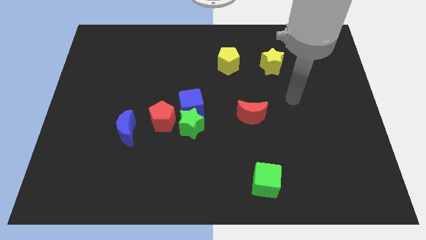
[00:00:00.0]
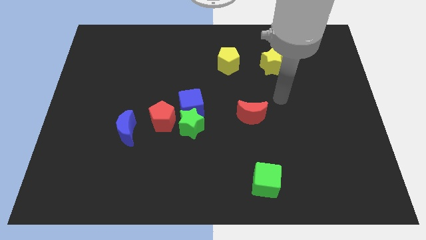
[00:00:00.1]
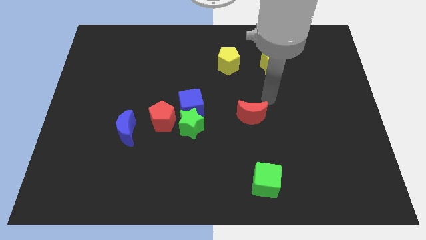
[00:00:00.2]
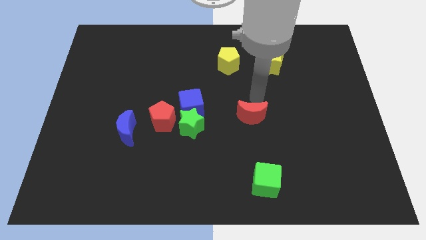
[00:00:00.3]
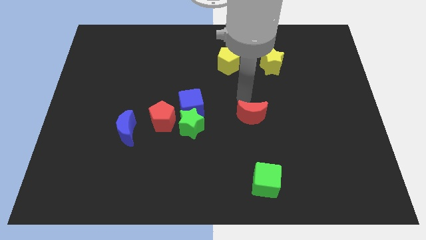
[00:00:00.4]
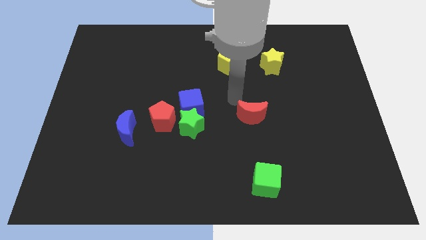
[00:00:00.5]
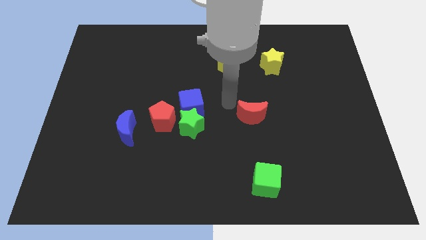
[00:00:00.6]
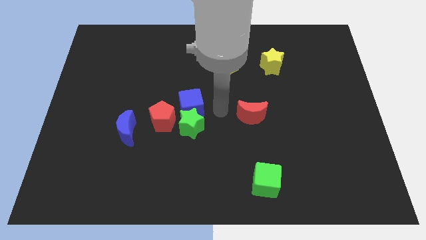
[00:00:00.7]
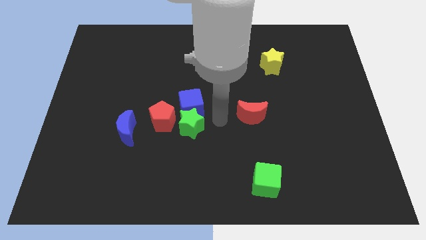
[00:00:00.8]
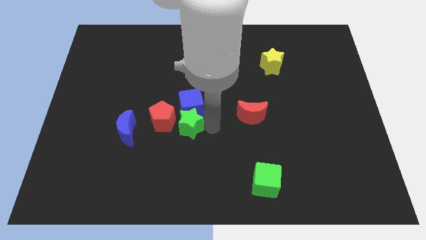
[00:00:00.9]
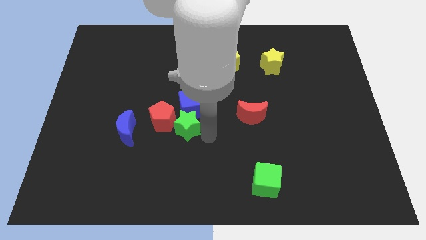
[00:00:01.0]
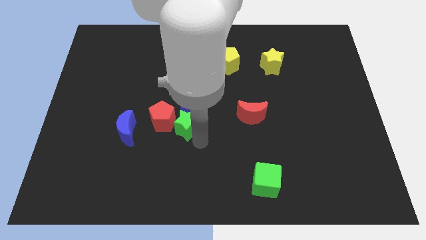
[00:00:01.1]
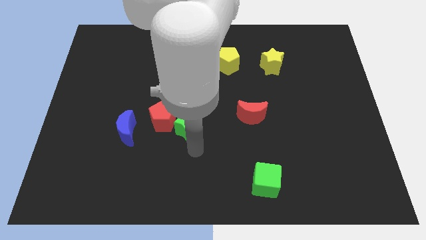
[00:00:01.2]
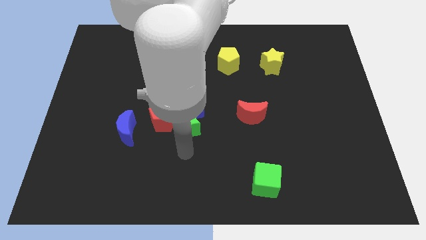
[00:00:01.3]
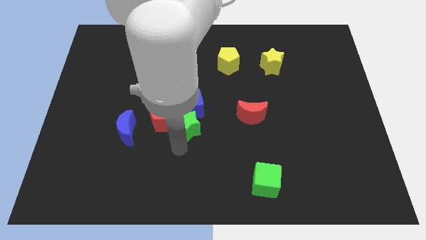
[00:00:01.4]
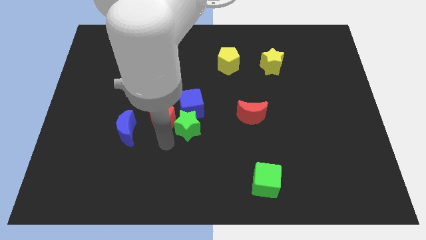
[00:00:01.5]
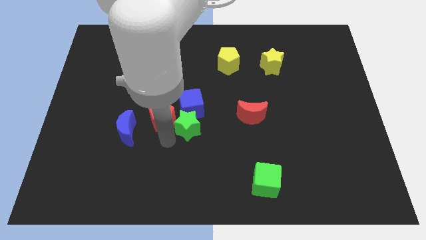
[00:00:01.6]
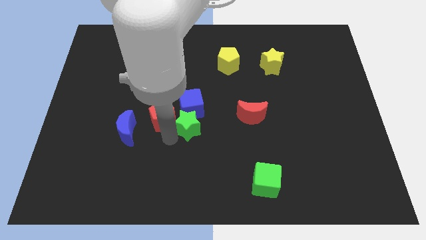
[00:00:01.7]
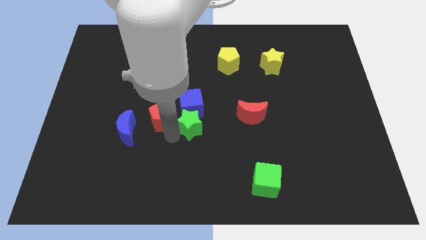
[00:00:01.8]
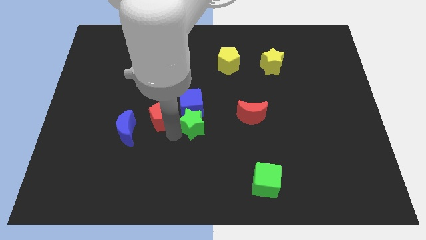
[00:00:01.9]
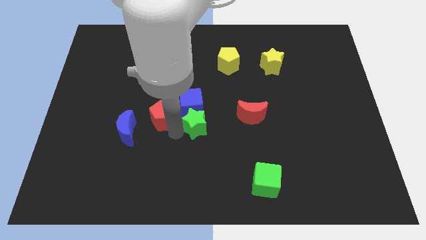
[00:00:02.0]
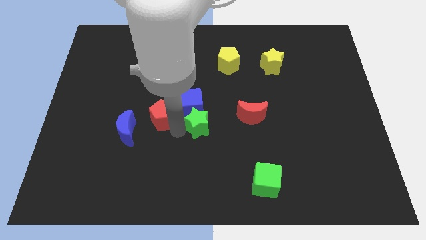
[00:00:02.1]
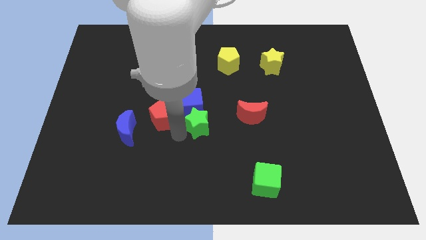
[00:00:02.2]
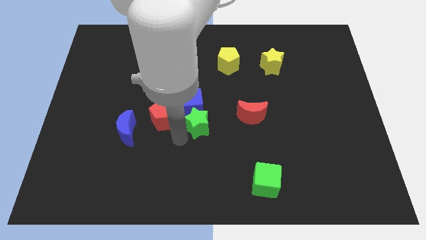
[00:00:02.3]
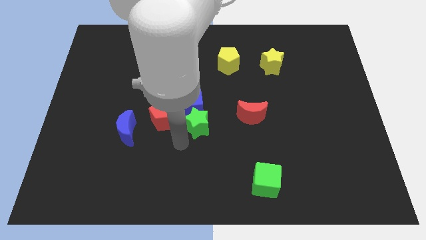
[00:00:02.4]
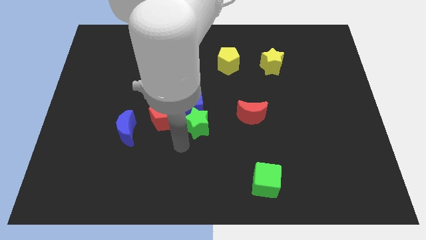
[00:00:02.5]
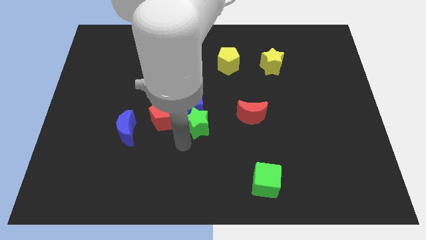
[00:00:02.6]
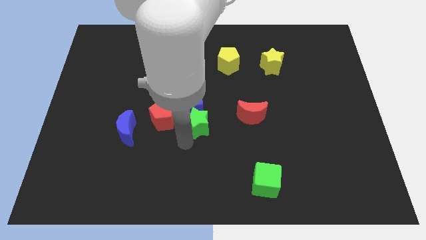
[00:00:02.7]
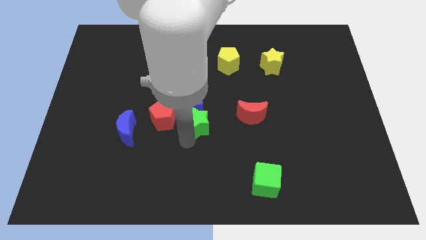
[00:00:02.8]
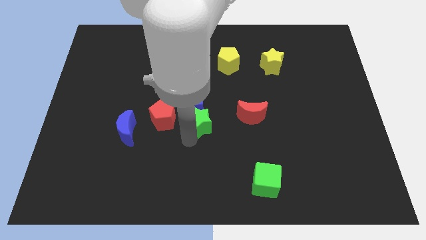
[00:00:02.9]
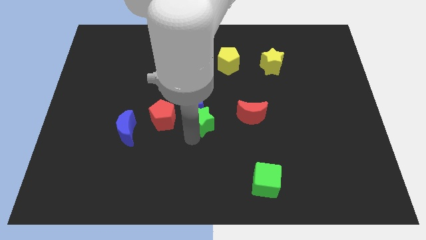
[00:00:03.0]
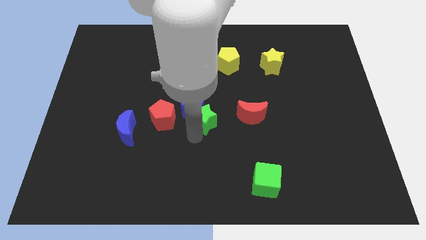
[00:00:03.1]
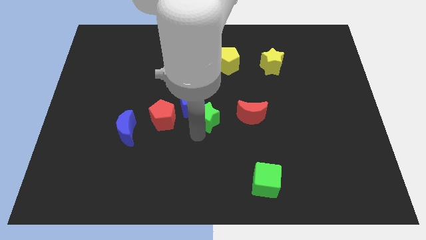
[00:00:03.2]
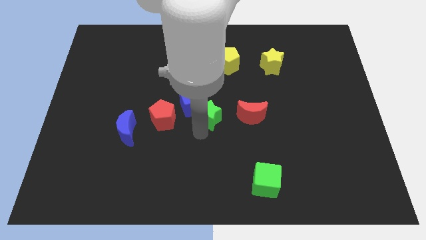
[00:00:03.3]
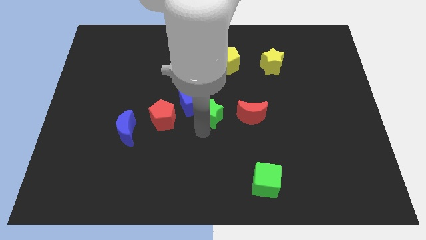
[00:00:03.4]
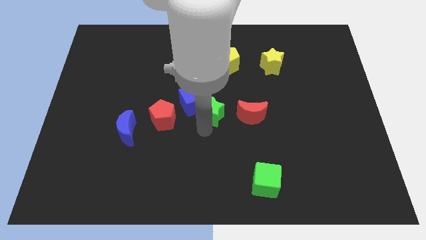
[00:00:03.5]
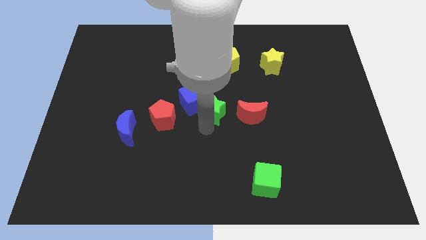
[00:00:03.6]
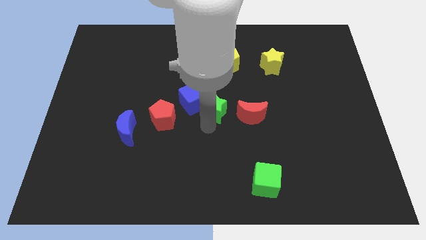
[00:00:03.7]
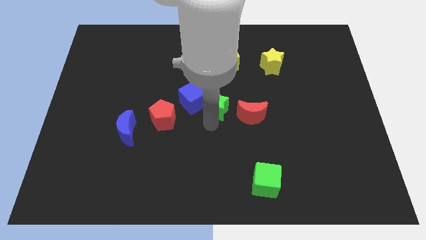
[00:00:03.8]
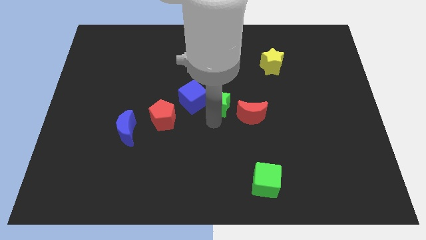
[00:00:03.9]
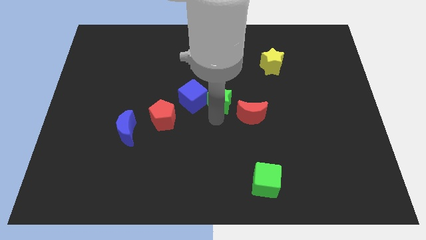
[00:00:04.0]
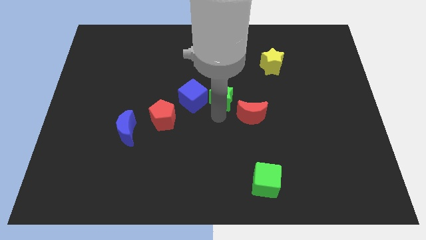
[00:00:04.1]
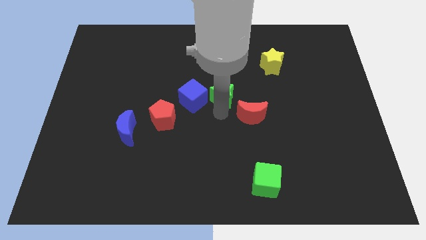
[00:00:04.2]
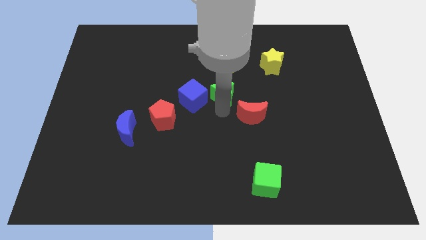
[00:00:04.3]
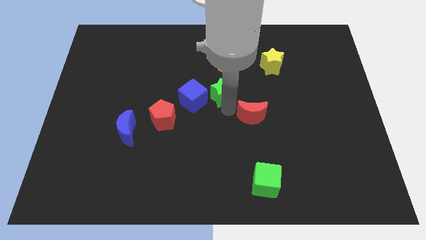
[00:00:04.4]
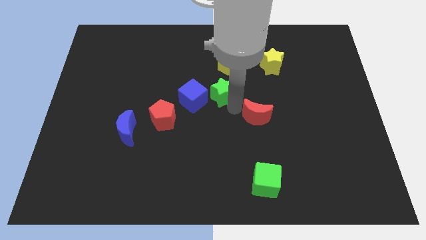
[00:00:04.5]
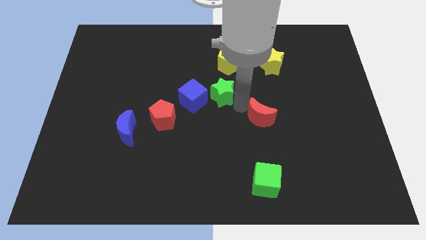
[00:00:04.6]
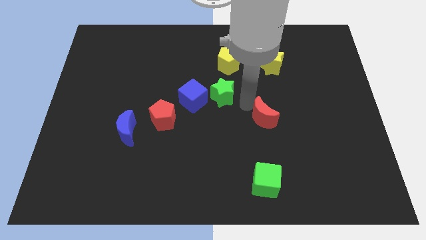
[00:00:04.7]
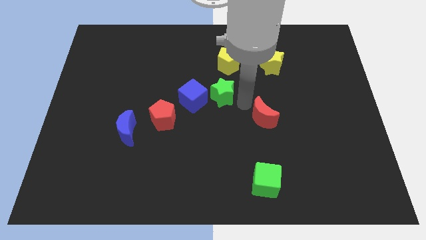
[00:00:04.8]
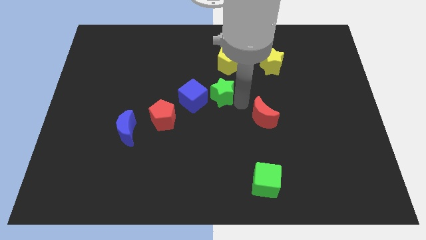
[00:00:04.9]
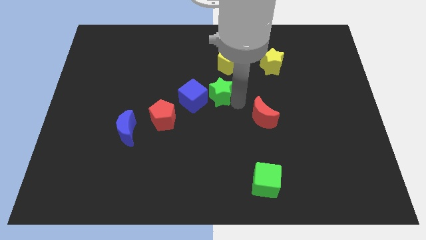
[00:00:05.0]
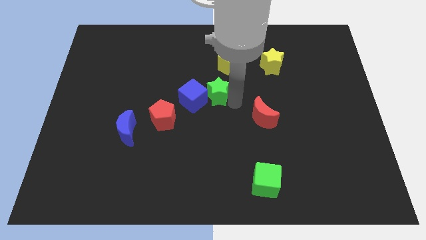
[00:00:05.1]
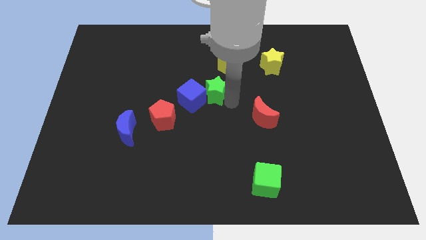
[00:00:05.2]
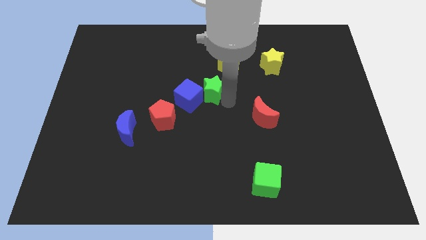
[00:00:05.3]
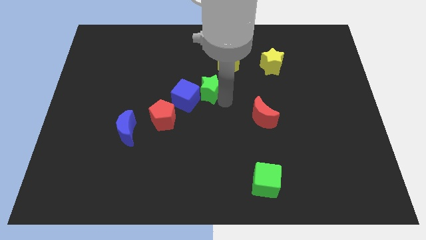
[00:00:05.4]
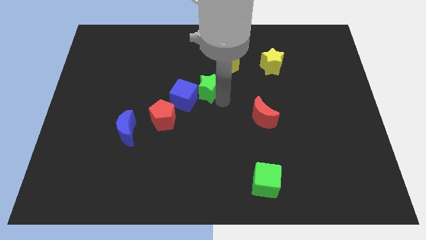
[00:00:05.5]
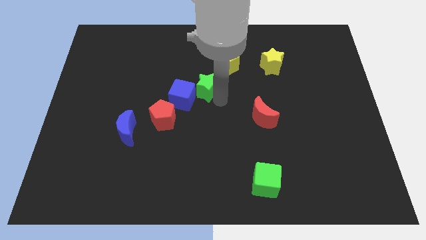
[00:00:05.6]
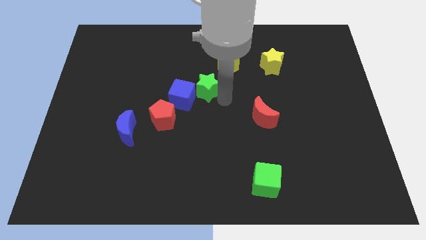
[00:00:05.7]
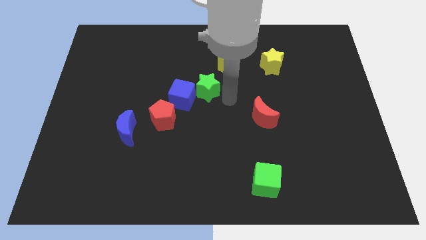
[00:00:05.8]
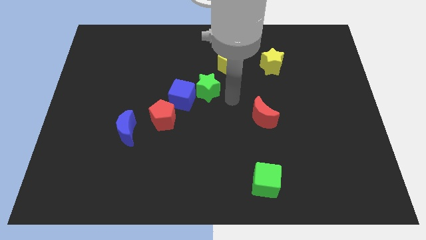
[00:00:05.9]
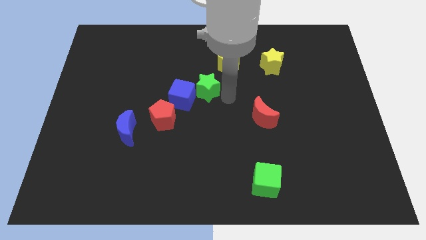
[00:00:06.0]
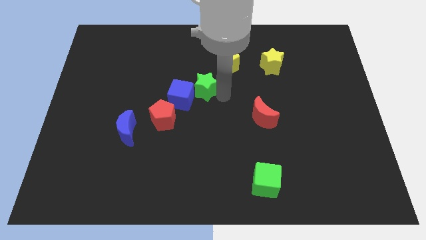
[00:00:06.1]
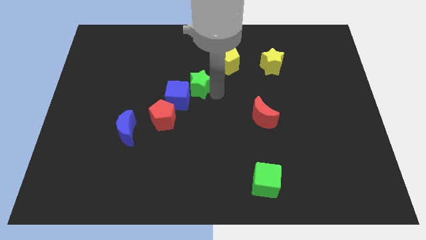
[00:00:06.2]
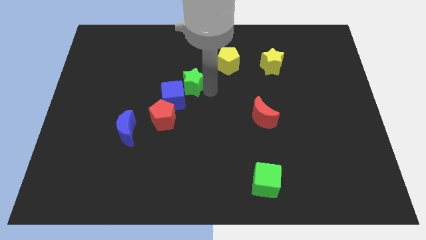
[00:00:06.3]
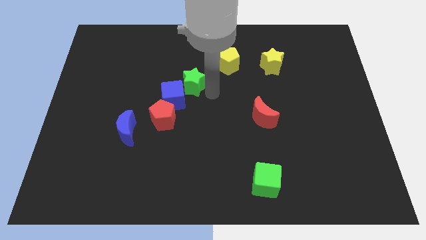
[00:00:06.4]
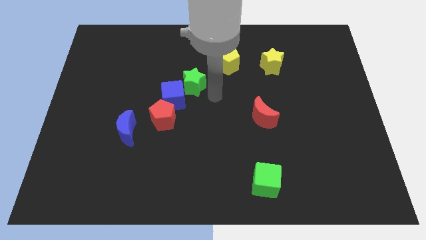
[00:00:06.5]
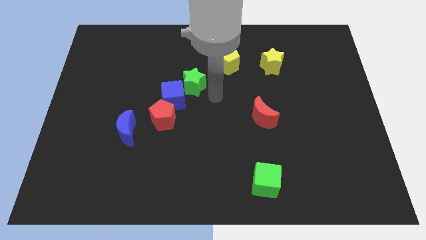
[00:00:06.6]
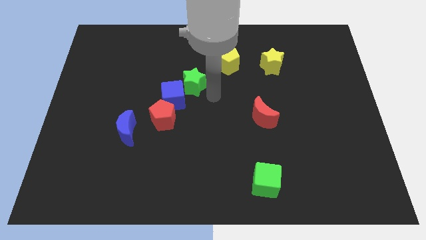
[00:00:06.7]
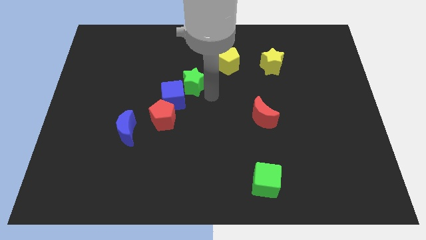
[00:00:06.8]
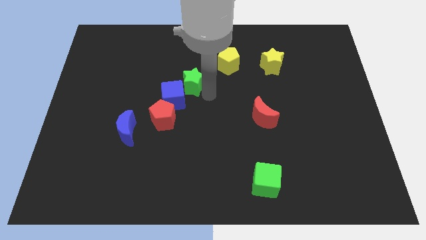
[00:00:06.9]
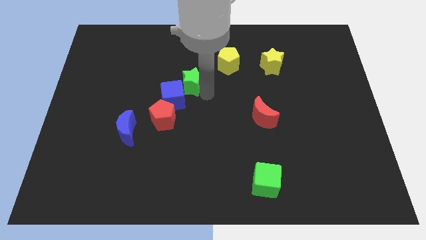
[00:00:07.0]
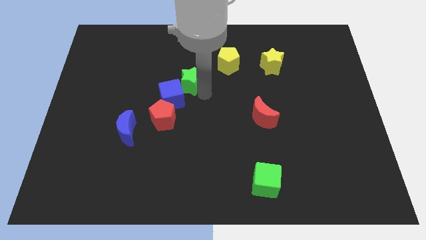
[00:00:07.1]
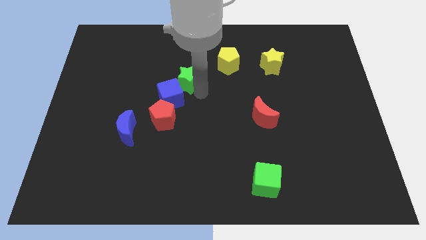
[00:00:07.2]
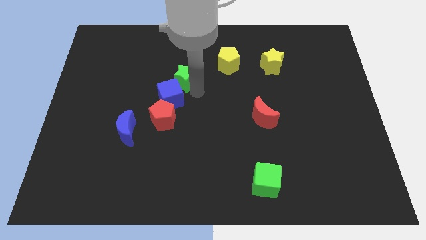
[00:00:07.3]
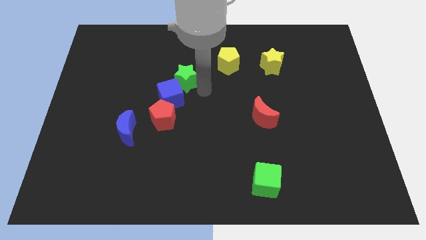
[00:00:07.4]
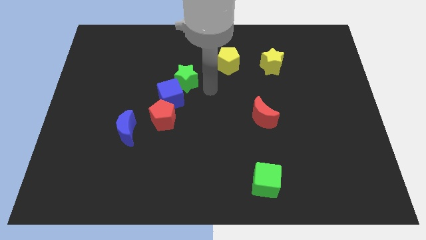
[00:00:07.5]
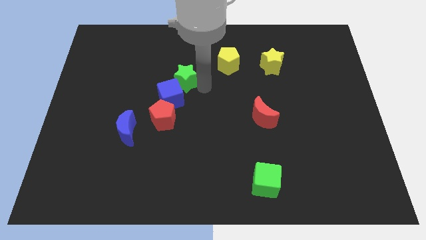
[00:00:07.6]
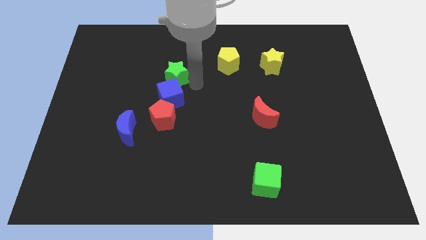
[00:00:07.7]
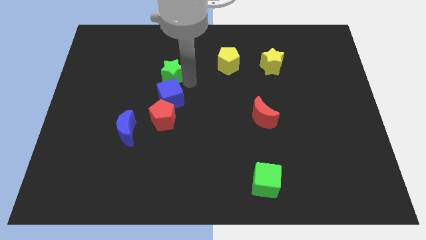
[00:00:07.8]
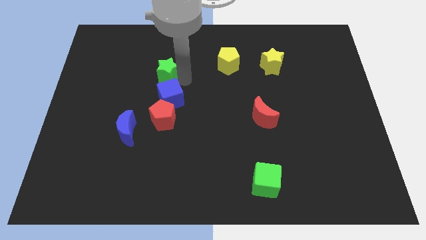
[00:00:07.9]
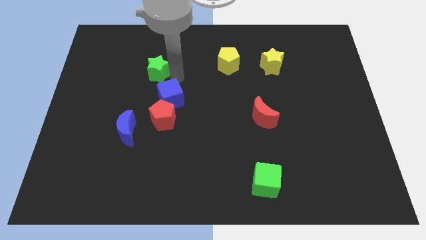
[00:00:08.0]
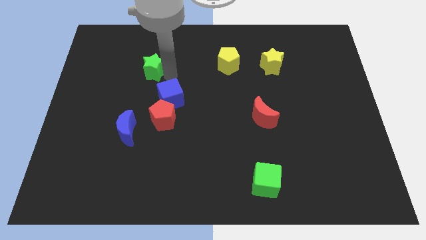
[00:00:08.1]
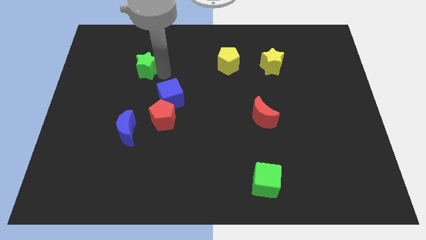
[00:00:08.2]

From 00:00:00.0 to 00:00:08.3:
push the green star upwards and to the left
